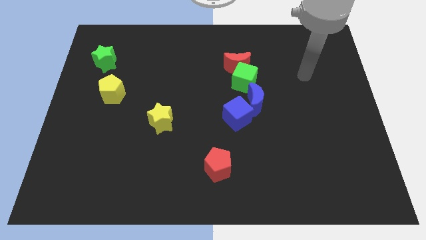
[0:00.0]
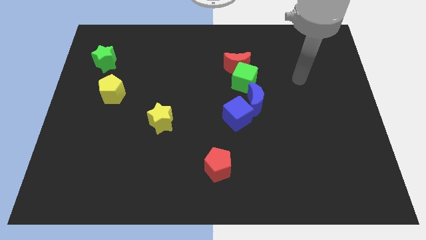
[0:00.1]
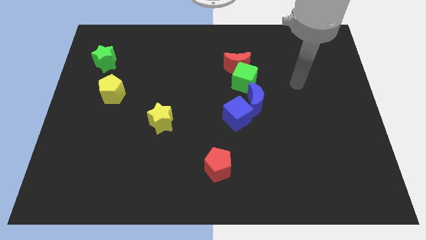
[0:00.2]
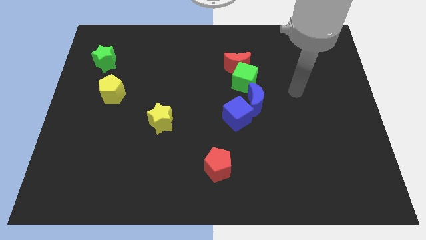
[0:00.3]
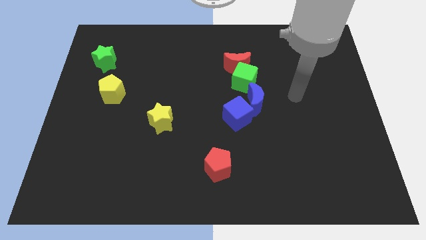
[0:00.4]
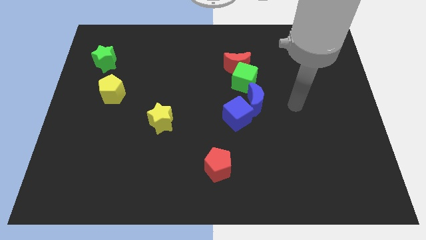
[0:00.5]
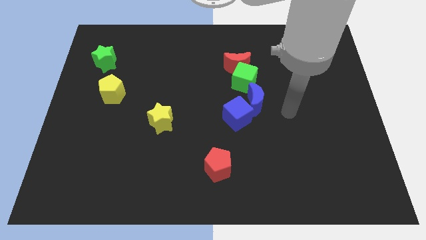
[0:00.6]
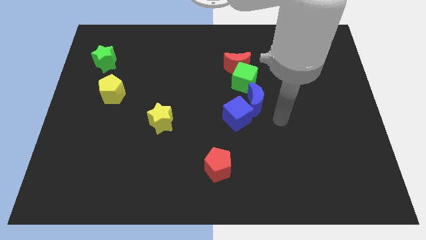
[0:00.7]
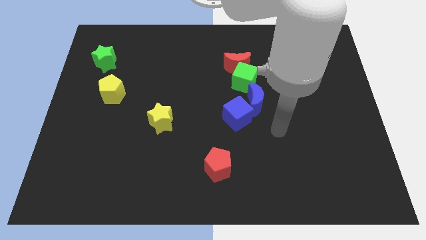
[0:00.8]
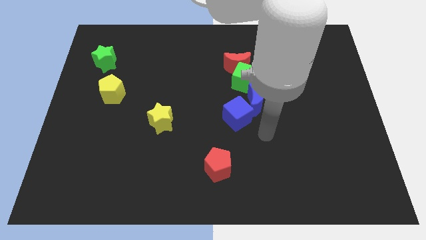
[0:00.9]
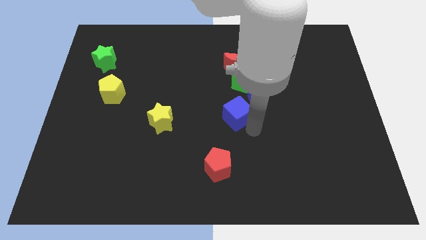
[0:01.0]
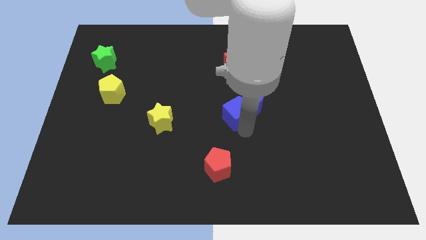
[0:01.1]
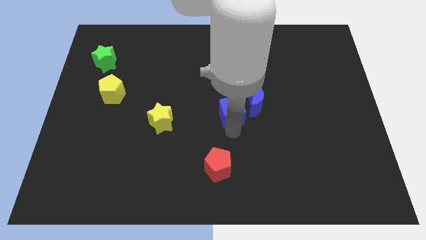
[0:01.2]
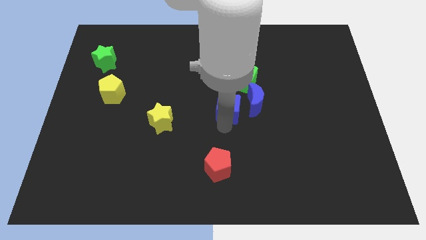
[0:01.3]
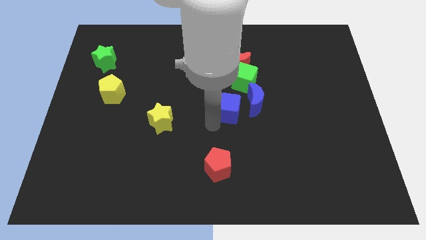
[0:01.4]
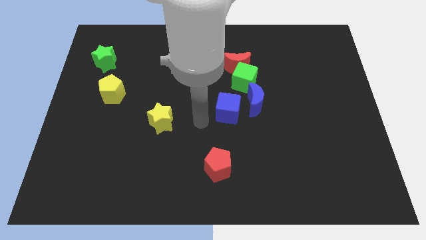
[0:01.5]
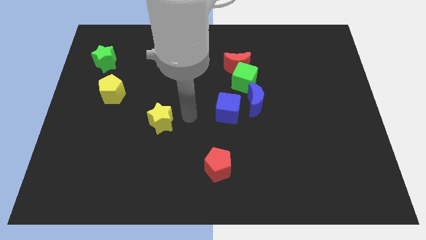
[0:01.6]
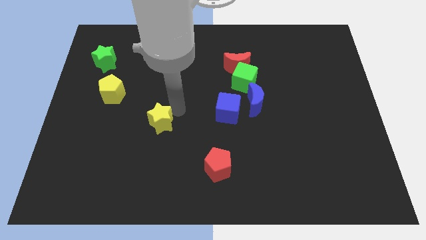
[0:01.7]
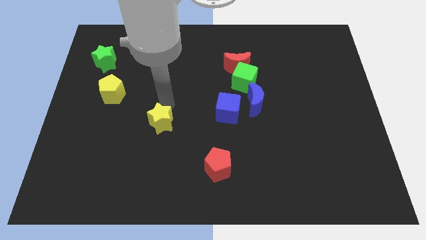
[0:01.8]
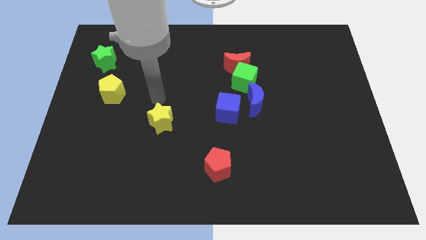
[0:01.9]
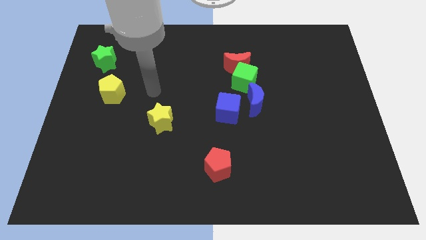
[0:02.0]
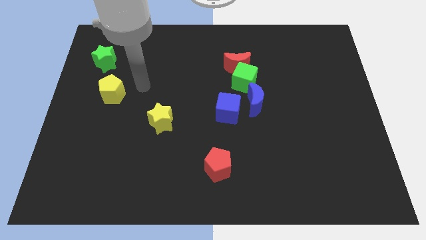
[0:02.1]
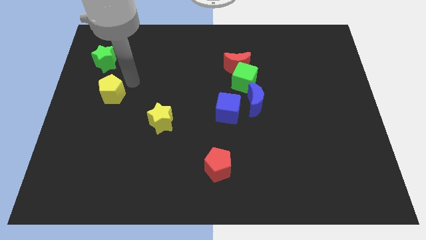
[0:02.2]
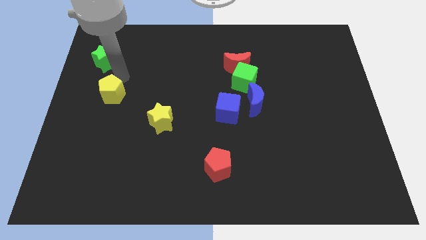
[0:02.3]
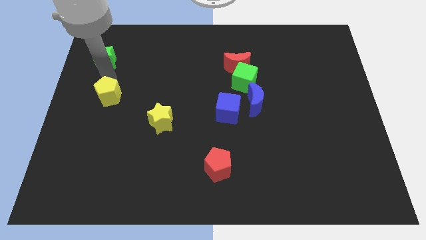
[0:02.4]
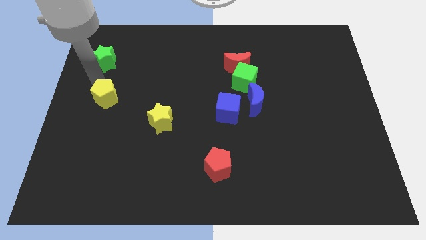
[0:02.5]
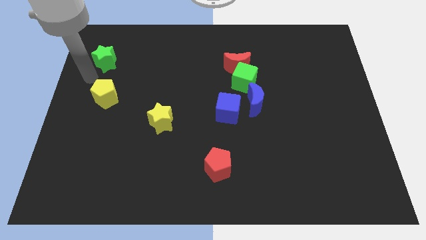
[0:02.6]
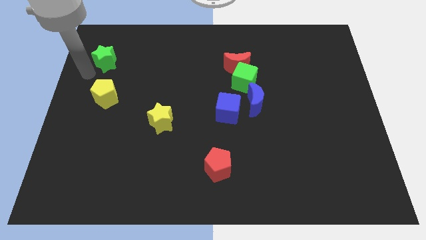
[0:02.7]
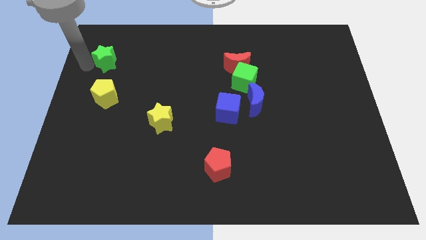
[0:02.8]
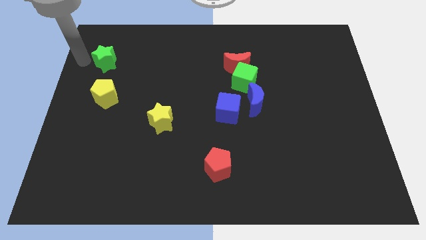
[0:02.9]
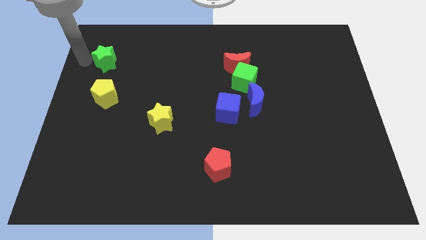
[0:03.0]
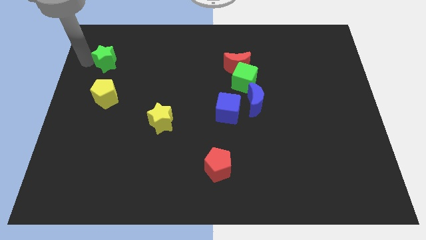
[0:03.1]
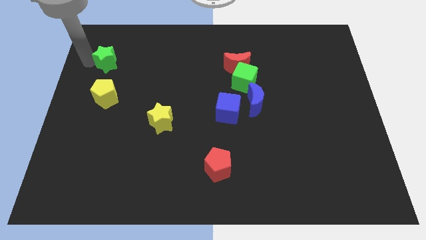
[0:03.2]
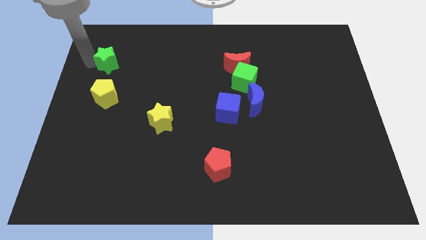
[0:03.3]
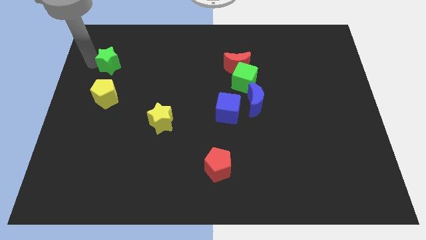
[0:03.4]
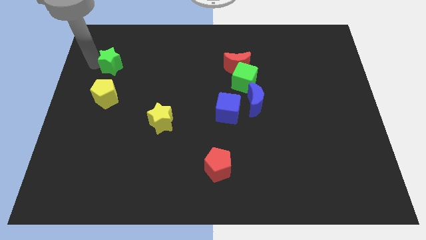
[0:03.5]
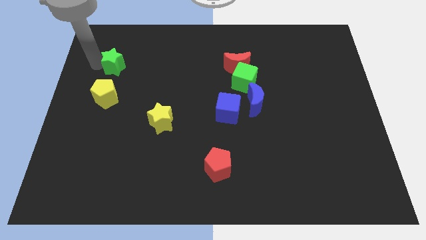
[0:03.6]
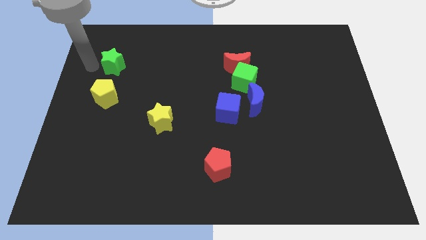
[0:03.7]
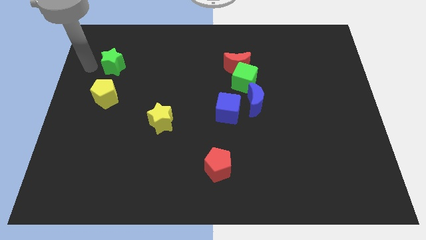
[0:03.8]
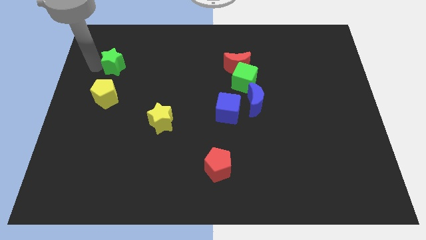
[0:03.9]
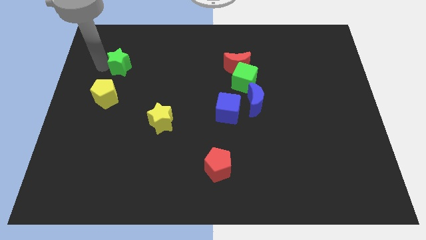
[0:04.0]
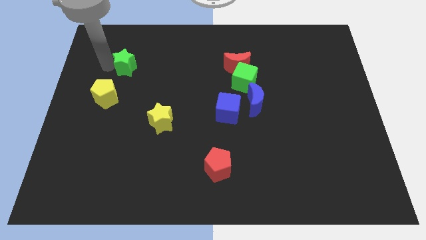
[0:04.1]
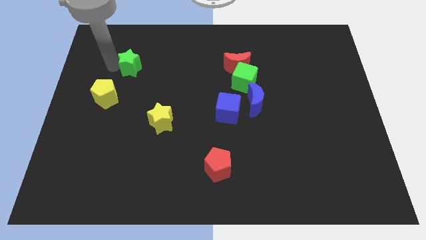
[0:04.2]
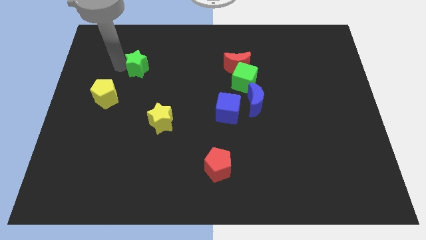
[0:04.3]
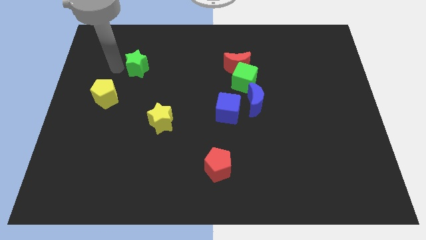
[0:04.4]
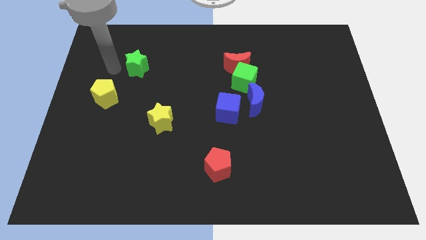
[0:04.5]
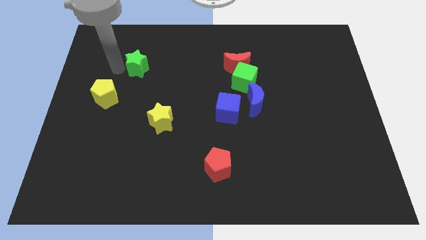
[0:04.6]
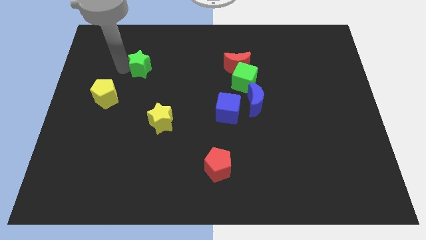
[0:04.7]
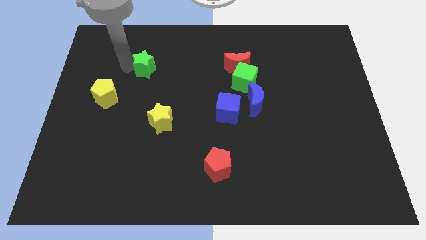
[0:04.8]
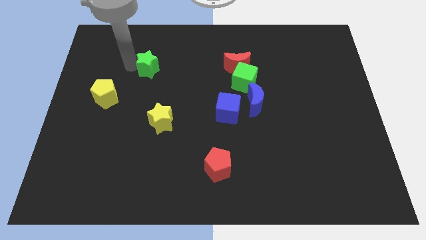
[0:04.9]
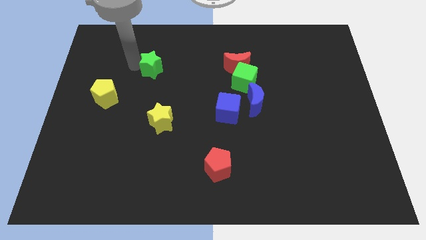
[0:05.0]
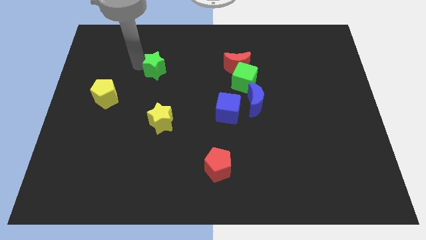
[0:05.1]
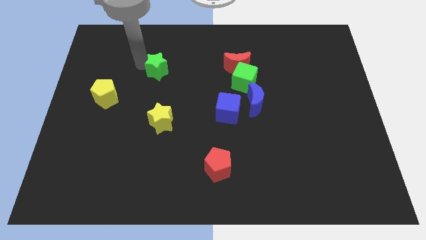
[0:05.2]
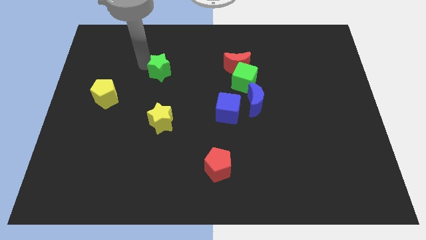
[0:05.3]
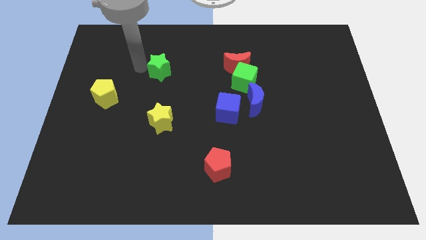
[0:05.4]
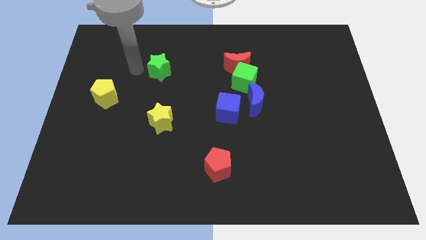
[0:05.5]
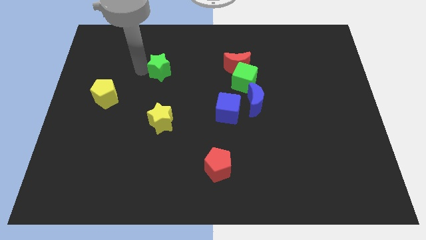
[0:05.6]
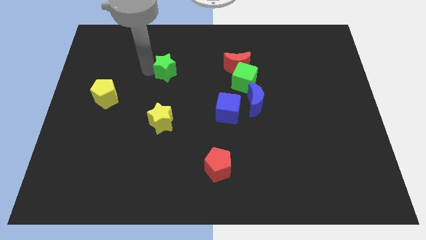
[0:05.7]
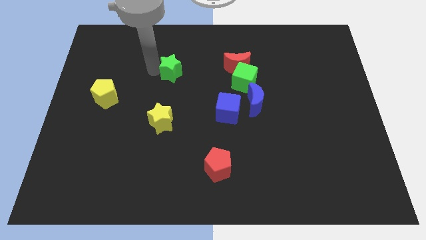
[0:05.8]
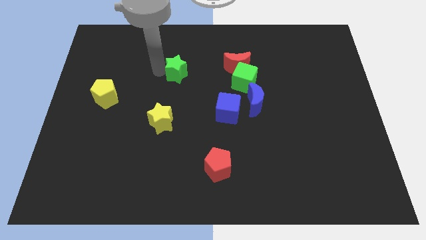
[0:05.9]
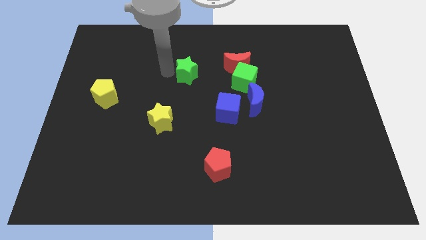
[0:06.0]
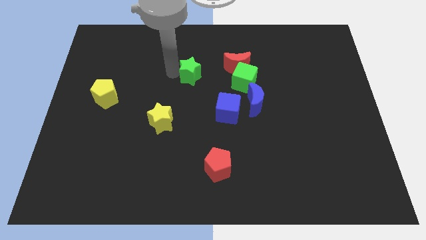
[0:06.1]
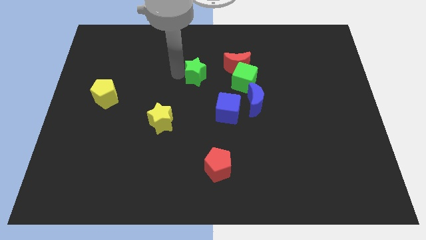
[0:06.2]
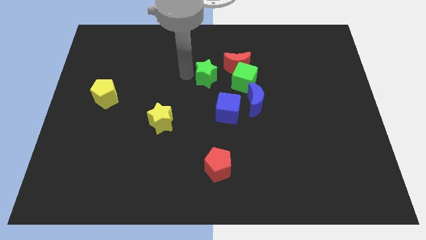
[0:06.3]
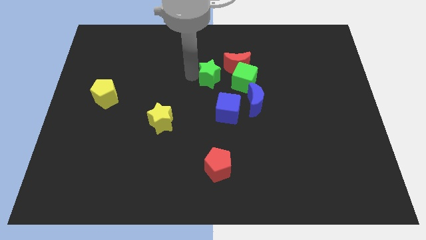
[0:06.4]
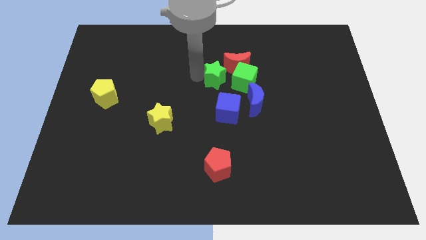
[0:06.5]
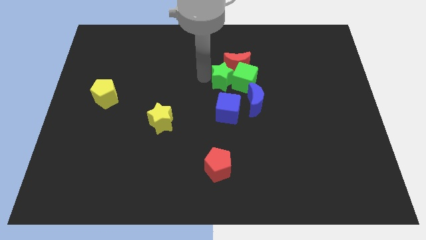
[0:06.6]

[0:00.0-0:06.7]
push the green star towards the green cube

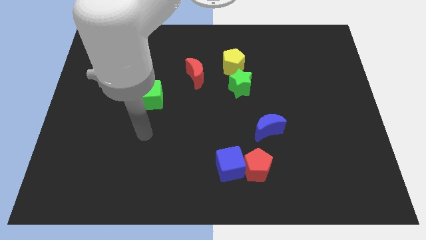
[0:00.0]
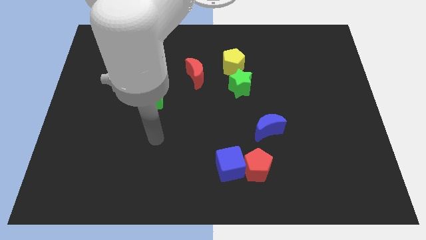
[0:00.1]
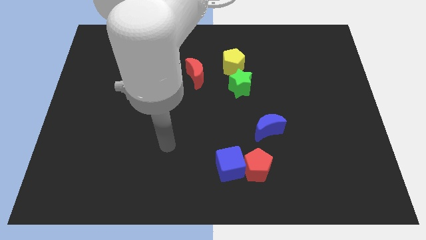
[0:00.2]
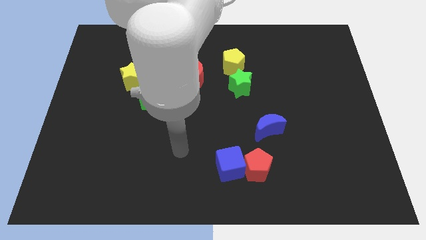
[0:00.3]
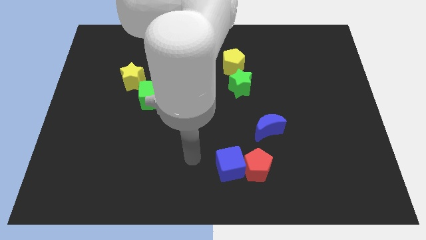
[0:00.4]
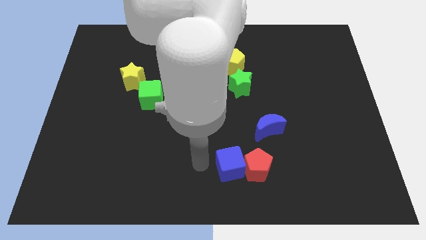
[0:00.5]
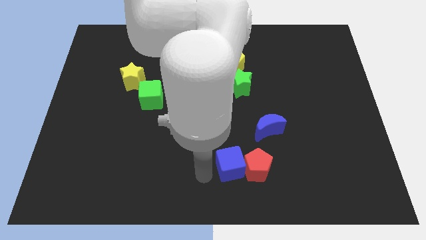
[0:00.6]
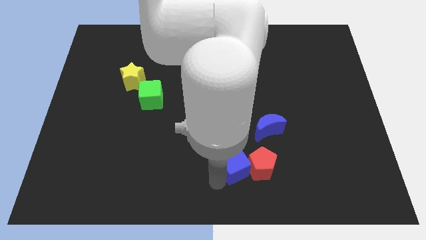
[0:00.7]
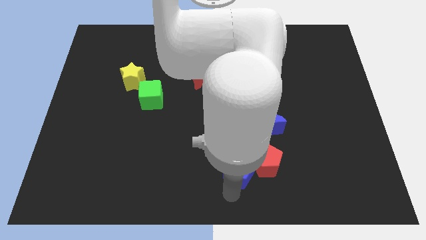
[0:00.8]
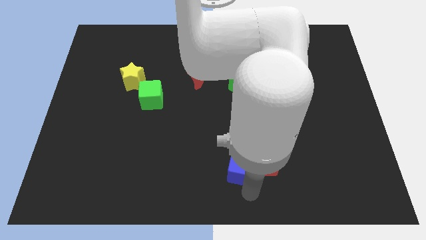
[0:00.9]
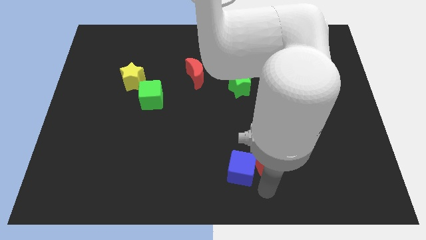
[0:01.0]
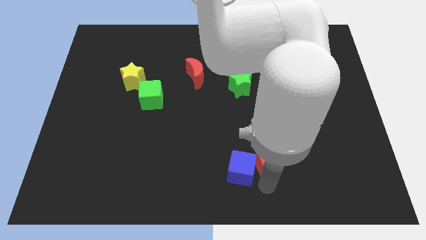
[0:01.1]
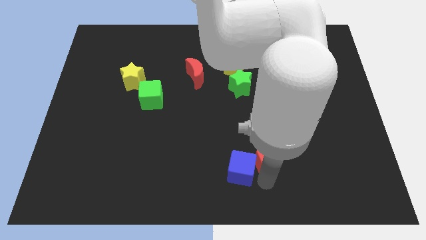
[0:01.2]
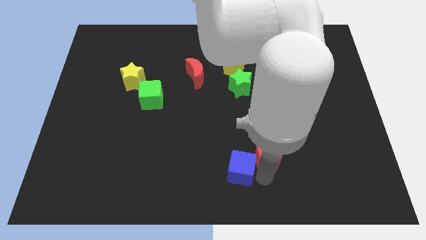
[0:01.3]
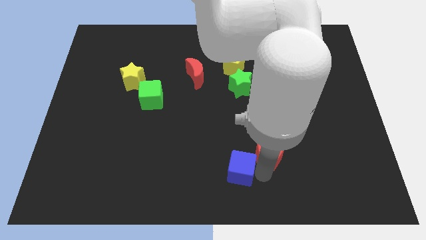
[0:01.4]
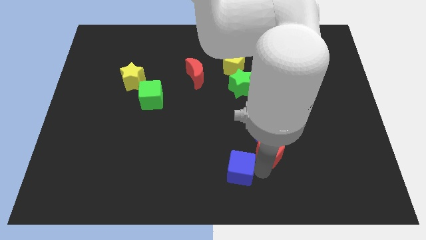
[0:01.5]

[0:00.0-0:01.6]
move the red pentagon next to the blue moon
